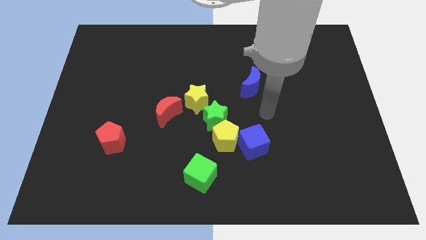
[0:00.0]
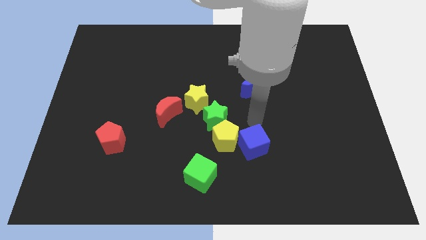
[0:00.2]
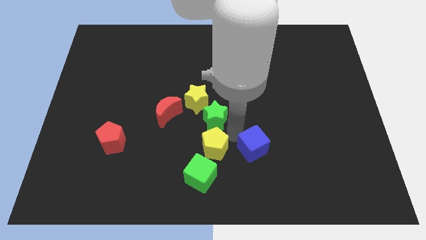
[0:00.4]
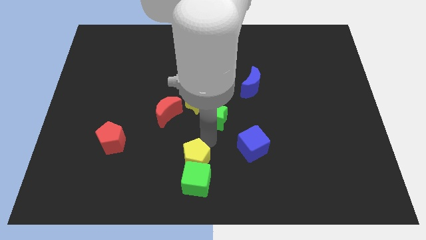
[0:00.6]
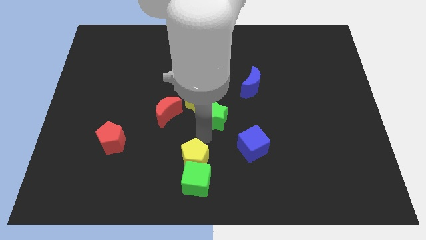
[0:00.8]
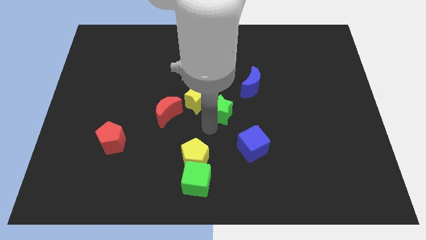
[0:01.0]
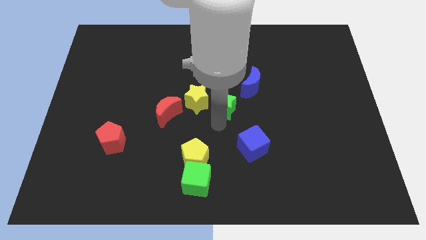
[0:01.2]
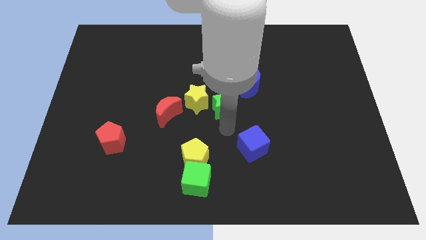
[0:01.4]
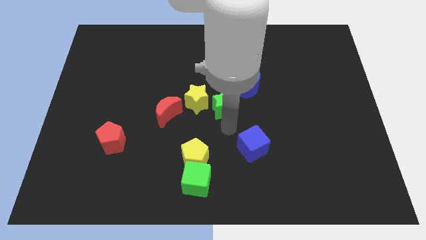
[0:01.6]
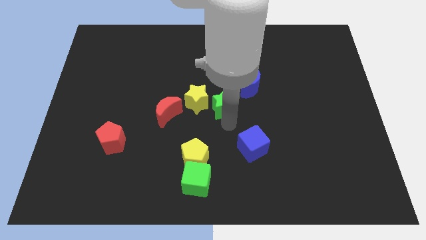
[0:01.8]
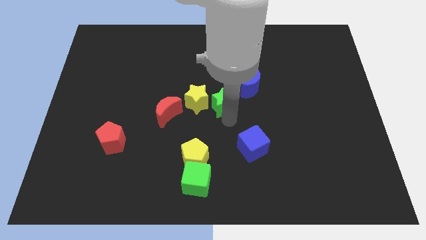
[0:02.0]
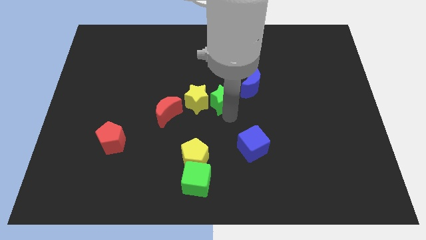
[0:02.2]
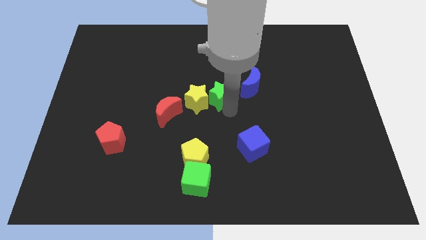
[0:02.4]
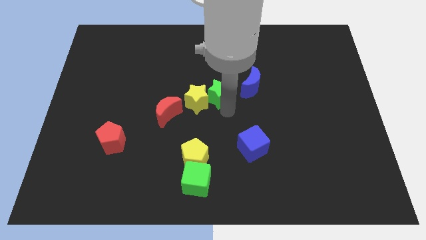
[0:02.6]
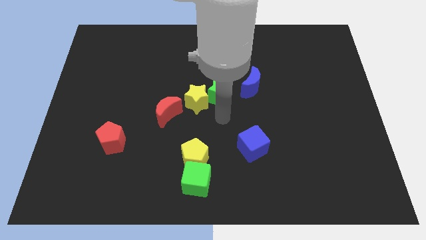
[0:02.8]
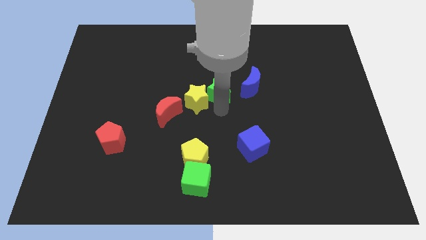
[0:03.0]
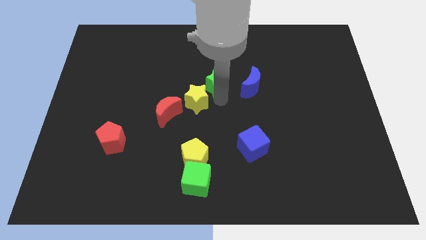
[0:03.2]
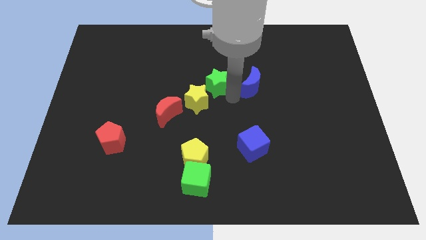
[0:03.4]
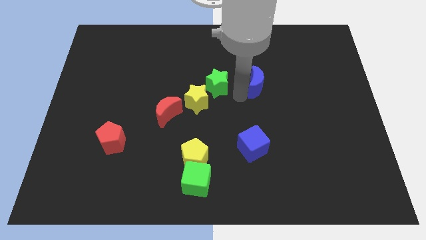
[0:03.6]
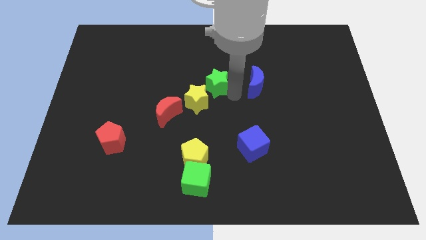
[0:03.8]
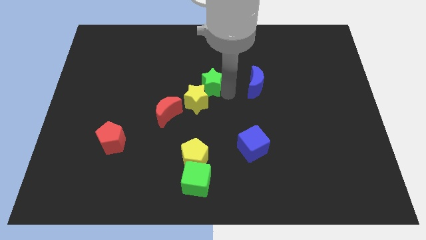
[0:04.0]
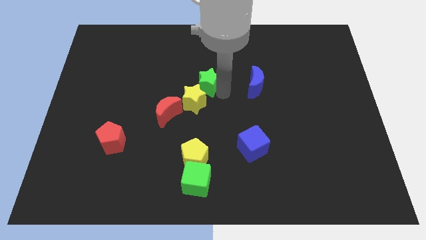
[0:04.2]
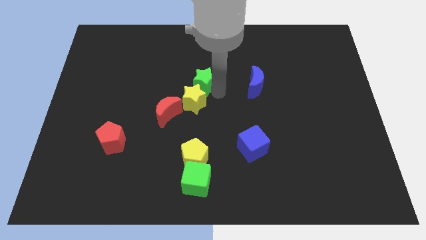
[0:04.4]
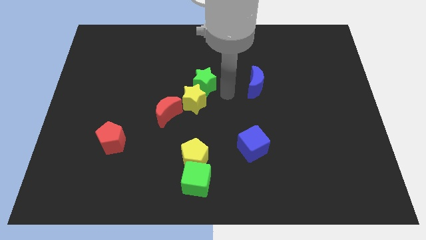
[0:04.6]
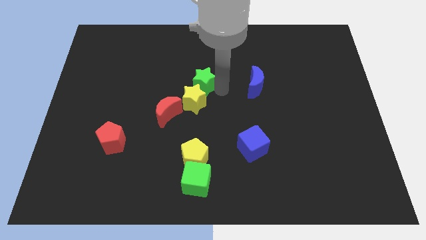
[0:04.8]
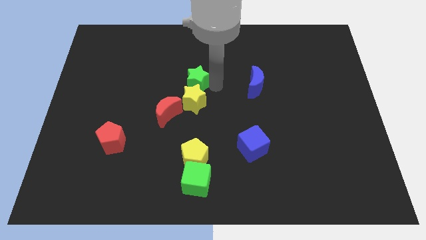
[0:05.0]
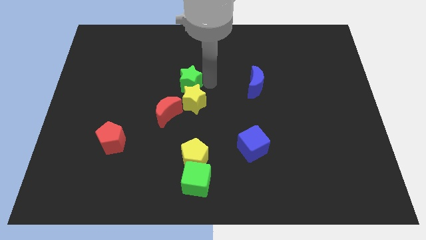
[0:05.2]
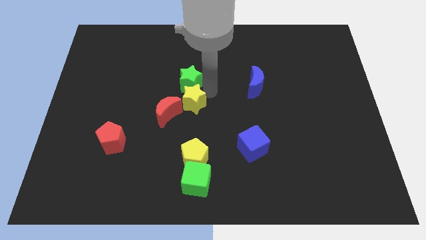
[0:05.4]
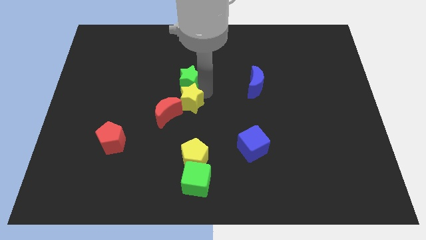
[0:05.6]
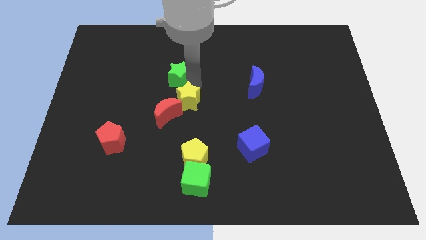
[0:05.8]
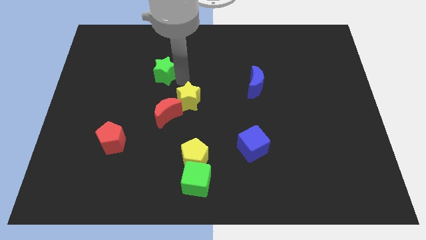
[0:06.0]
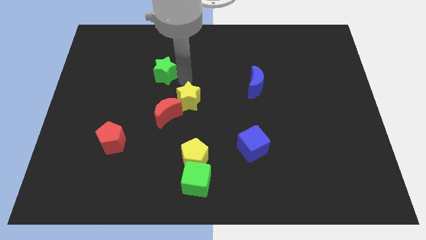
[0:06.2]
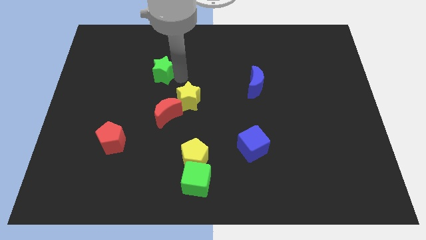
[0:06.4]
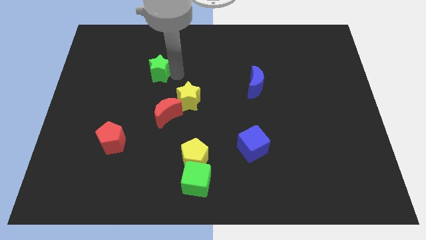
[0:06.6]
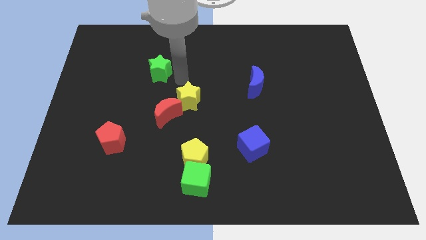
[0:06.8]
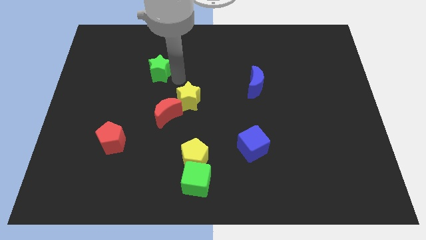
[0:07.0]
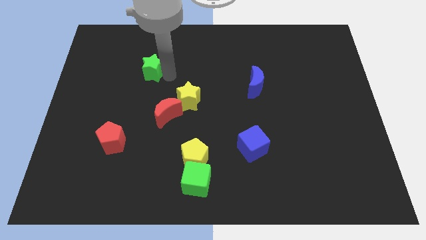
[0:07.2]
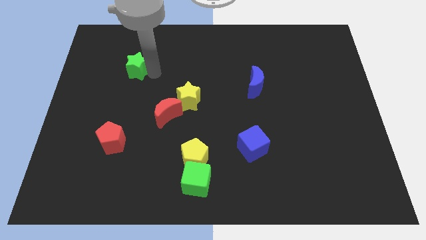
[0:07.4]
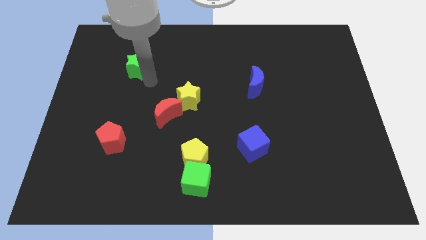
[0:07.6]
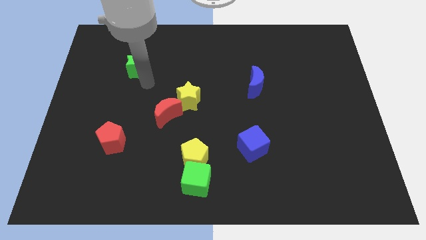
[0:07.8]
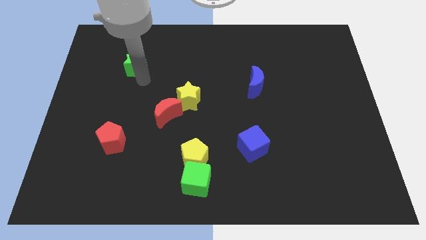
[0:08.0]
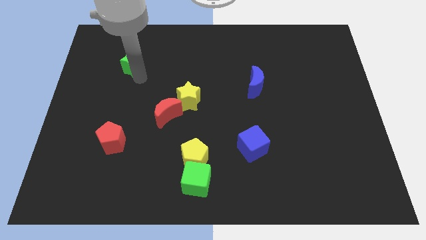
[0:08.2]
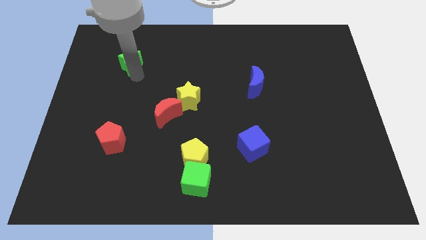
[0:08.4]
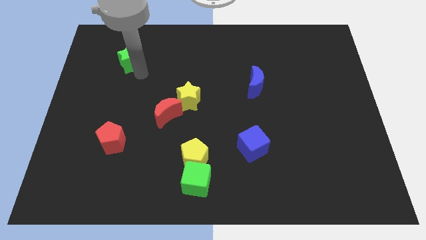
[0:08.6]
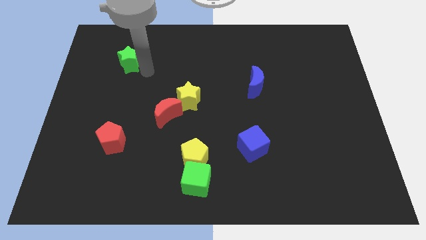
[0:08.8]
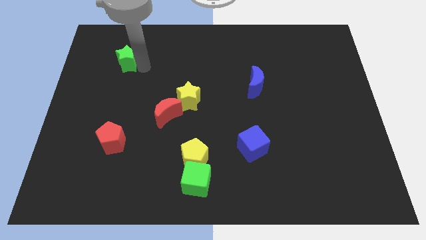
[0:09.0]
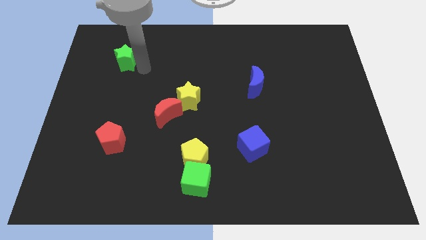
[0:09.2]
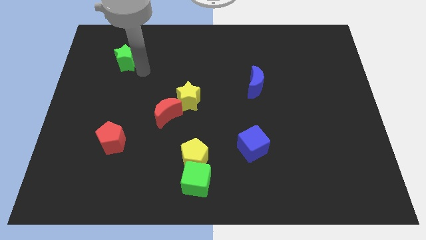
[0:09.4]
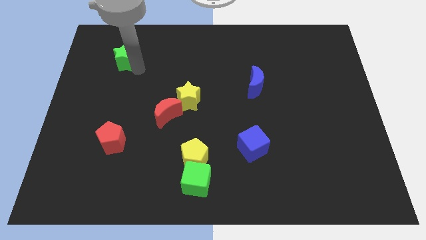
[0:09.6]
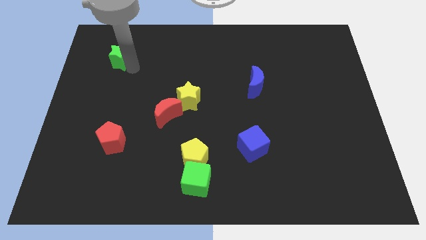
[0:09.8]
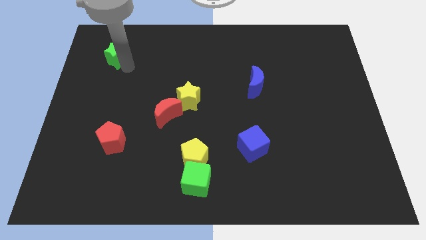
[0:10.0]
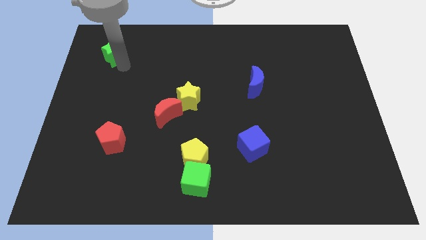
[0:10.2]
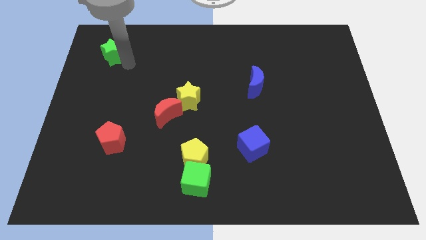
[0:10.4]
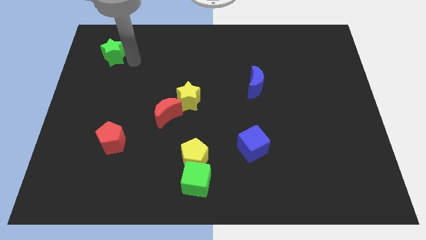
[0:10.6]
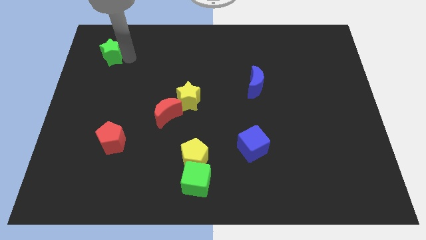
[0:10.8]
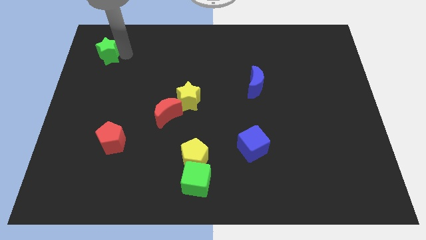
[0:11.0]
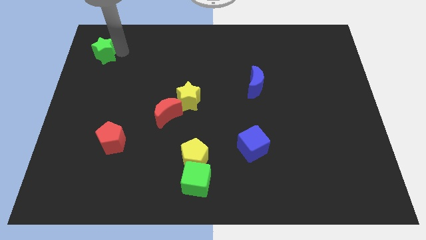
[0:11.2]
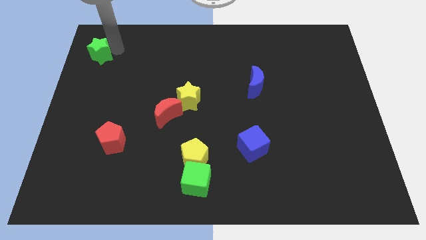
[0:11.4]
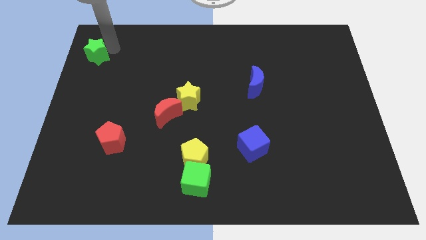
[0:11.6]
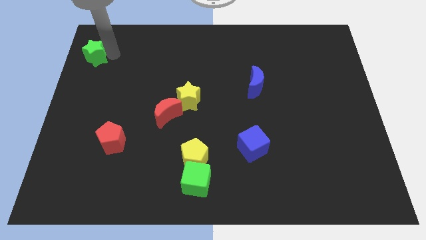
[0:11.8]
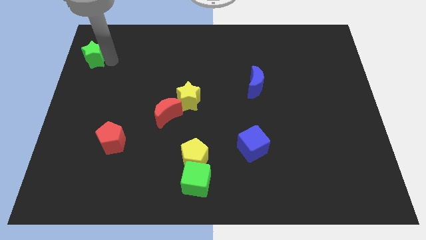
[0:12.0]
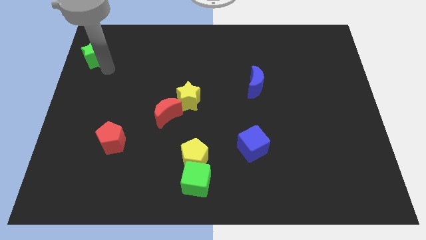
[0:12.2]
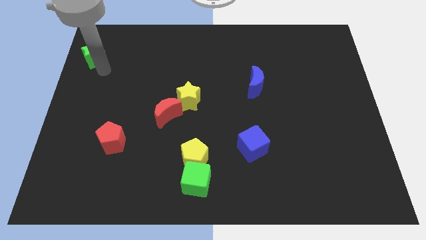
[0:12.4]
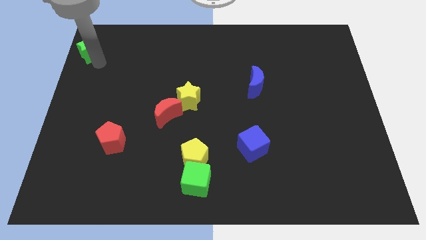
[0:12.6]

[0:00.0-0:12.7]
slide the green star to the top left corner
